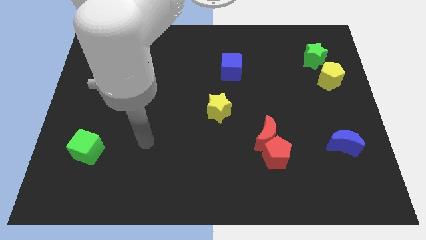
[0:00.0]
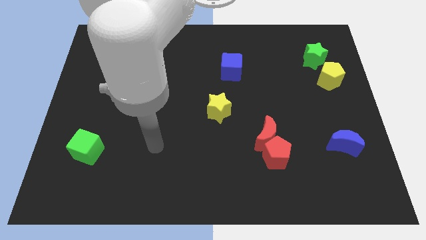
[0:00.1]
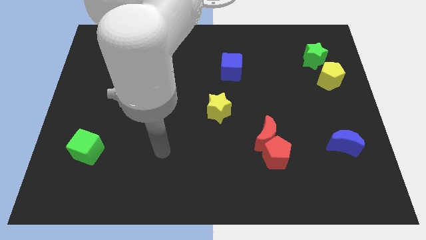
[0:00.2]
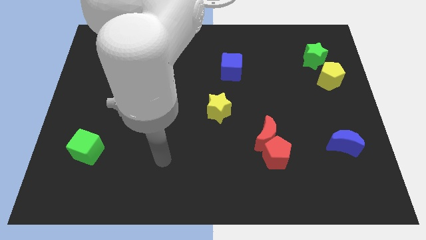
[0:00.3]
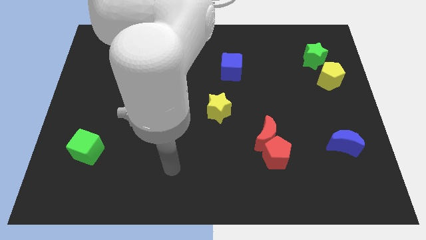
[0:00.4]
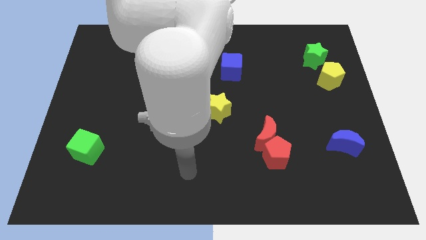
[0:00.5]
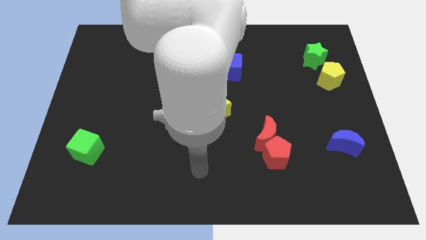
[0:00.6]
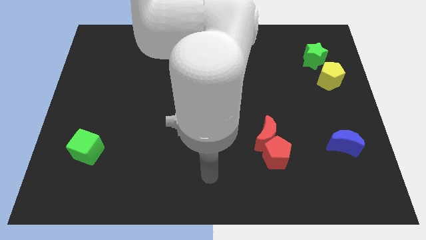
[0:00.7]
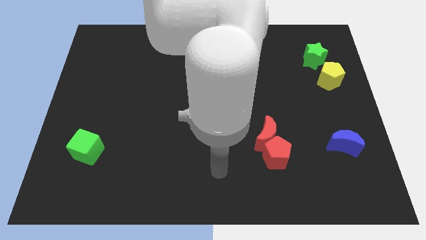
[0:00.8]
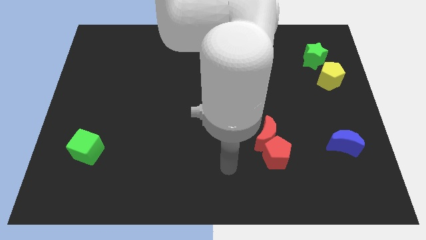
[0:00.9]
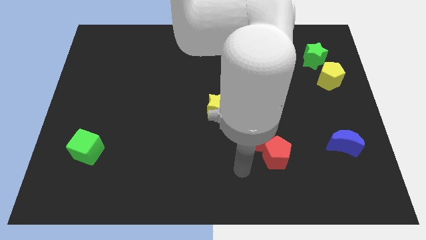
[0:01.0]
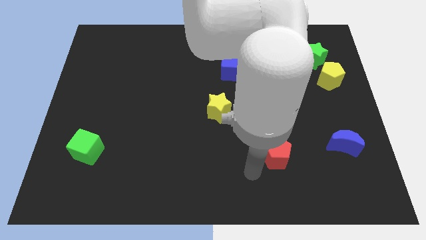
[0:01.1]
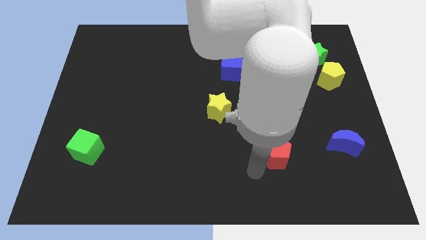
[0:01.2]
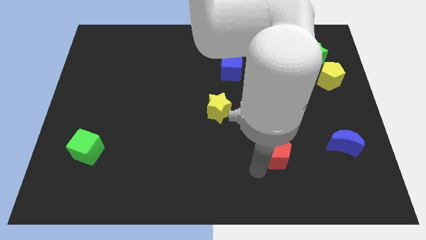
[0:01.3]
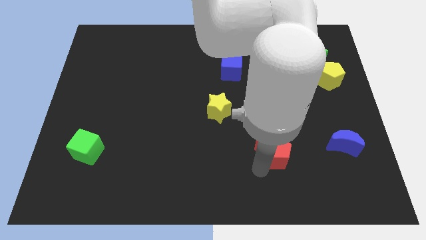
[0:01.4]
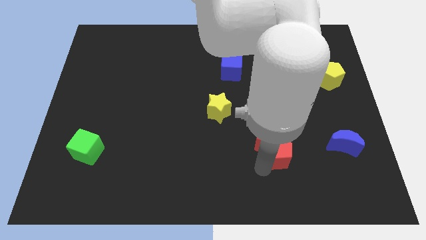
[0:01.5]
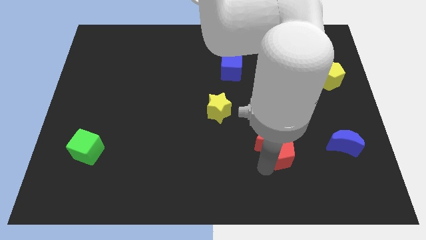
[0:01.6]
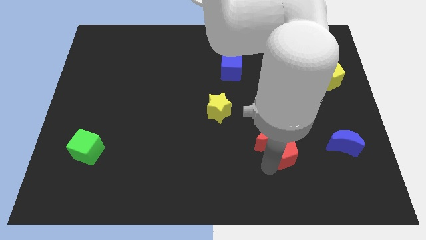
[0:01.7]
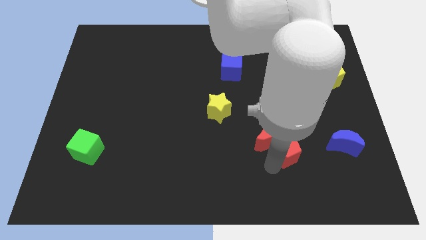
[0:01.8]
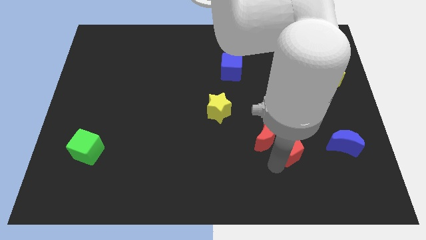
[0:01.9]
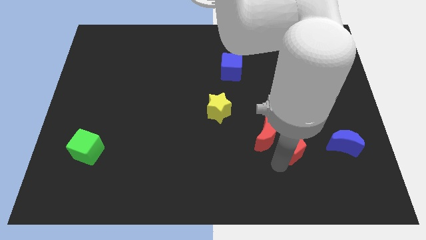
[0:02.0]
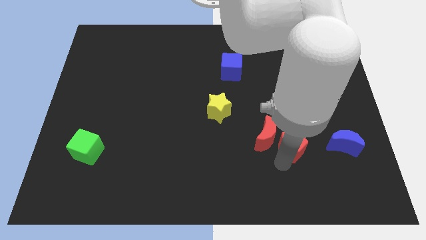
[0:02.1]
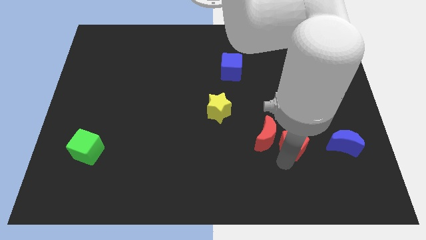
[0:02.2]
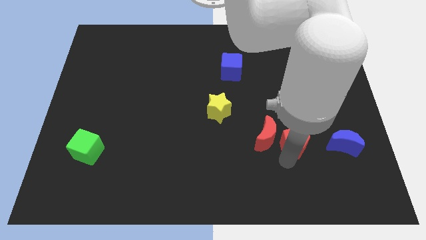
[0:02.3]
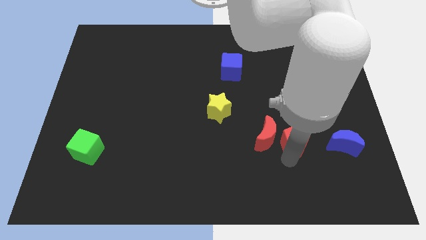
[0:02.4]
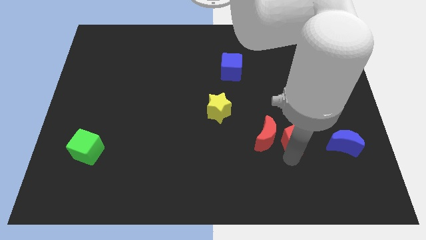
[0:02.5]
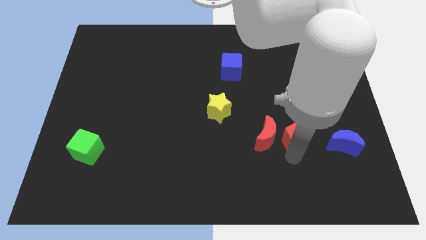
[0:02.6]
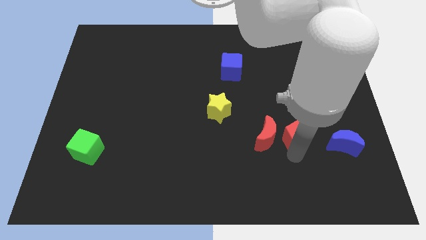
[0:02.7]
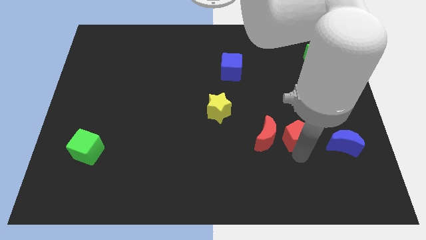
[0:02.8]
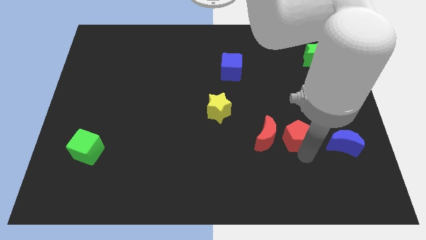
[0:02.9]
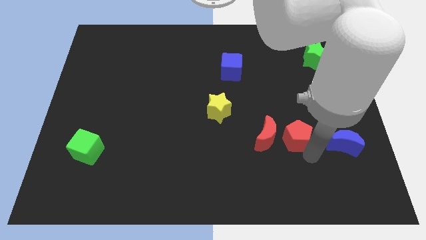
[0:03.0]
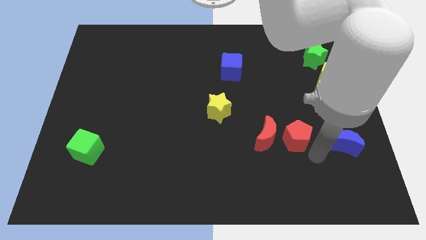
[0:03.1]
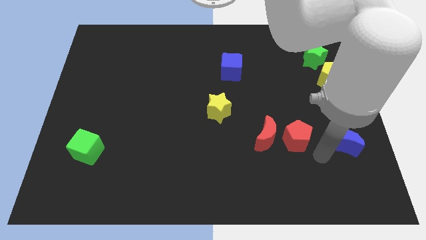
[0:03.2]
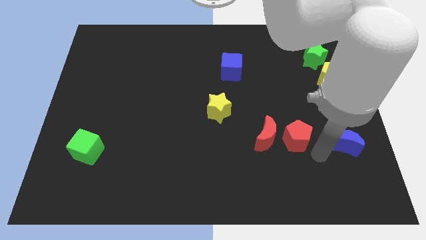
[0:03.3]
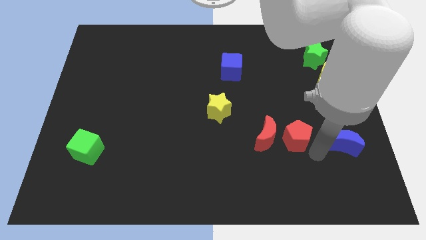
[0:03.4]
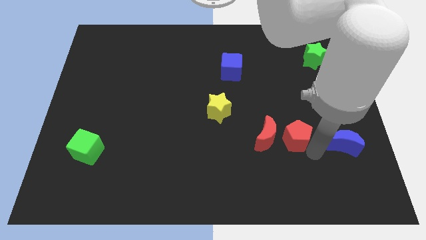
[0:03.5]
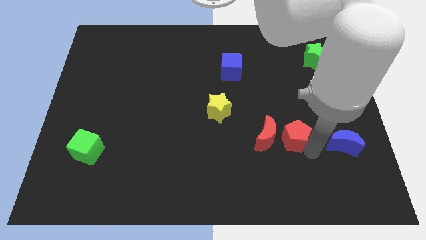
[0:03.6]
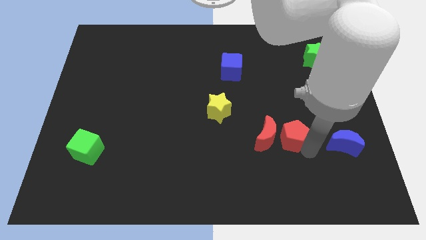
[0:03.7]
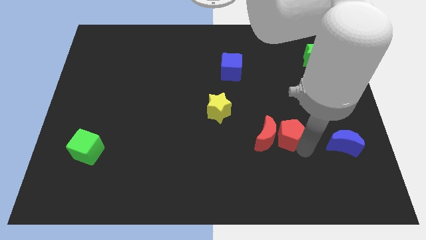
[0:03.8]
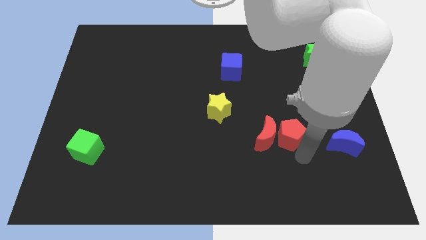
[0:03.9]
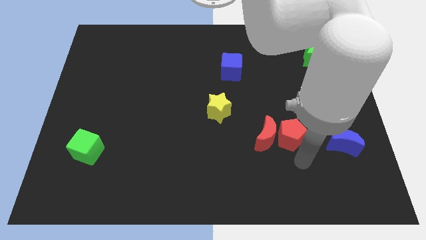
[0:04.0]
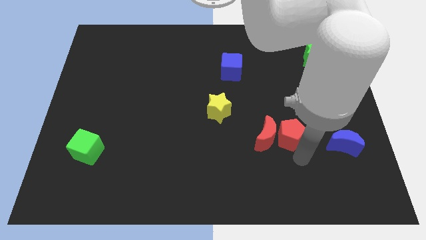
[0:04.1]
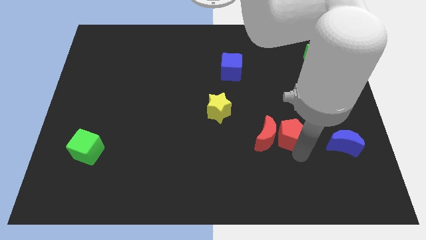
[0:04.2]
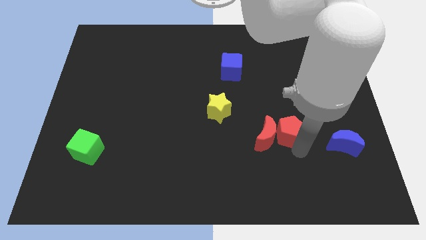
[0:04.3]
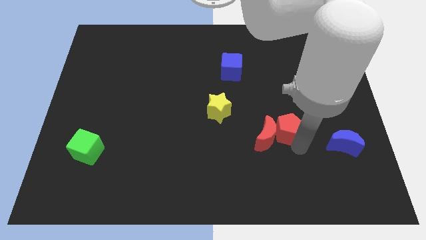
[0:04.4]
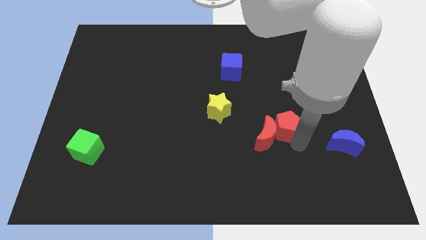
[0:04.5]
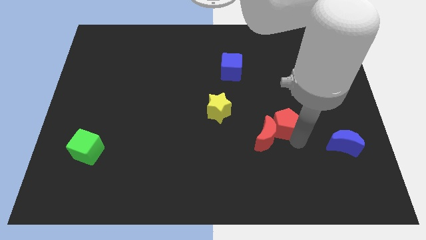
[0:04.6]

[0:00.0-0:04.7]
move the red pentagon upwards slightly

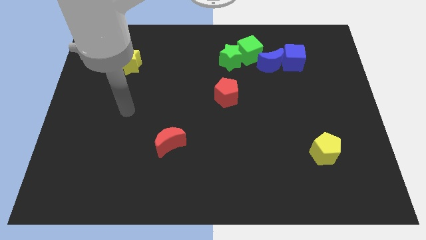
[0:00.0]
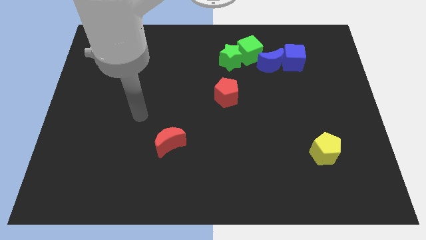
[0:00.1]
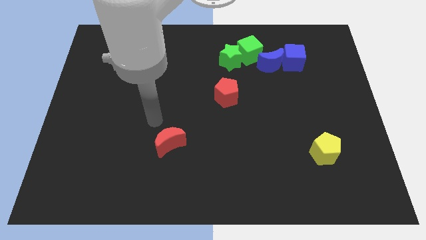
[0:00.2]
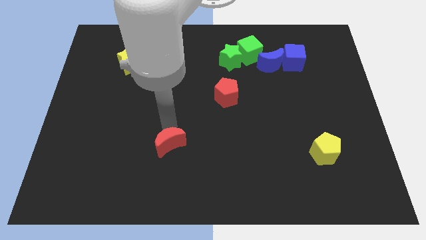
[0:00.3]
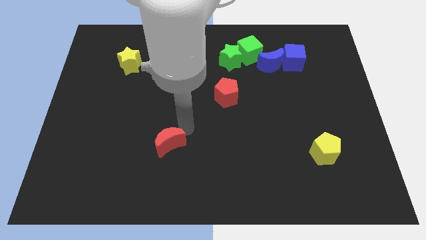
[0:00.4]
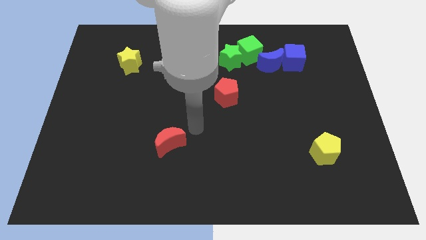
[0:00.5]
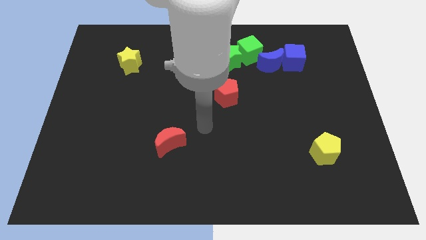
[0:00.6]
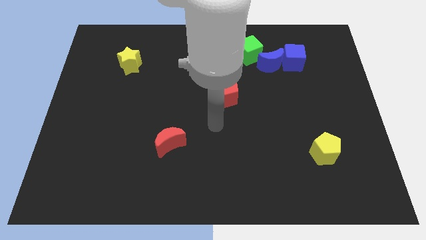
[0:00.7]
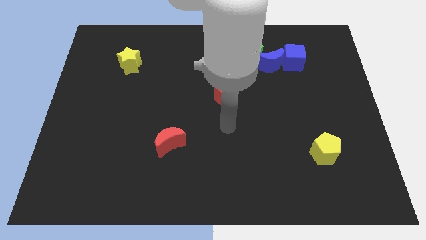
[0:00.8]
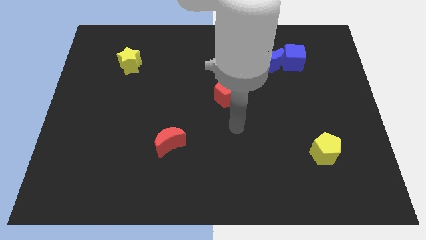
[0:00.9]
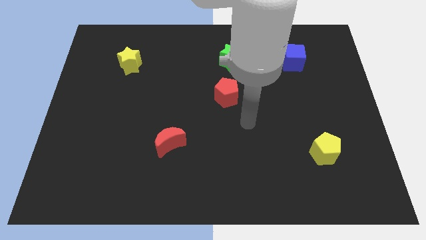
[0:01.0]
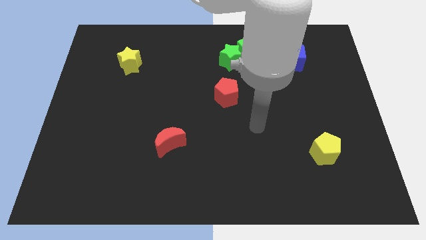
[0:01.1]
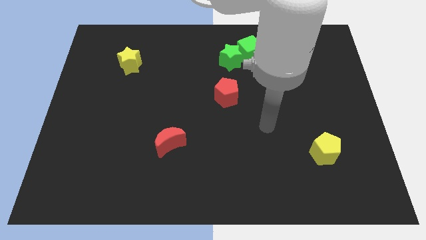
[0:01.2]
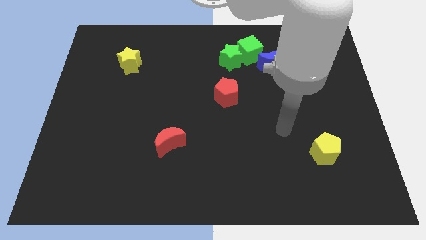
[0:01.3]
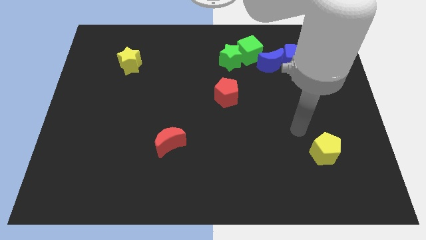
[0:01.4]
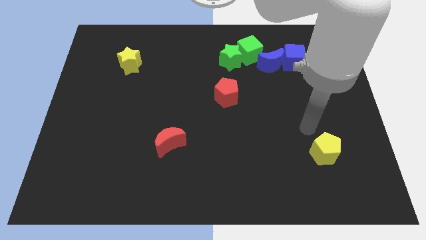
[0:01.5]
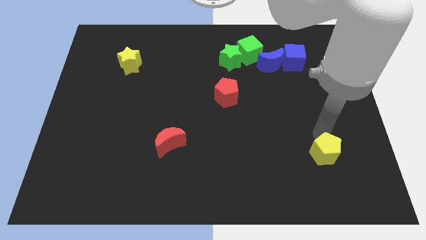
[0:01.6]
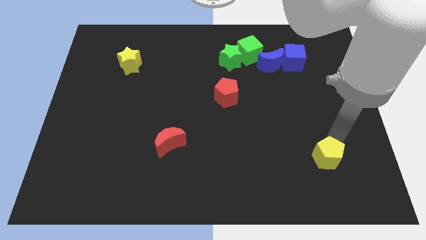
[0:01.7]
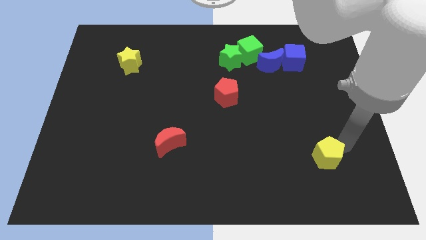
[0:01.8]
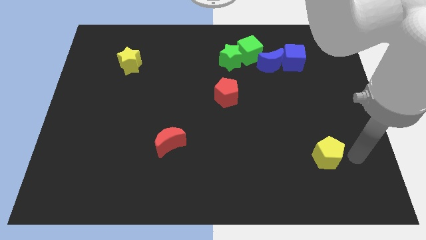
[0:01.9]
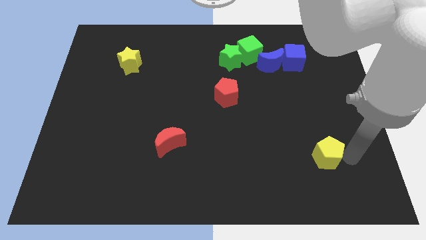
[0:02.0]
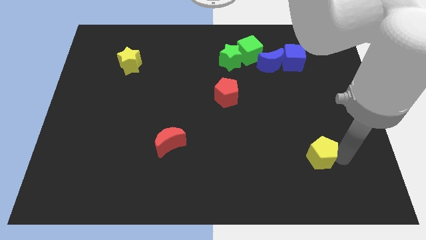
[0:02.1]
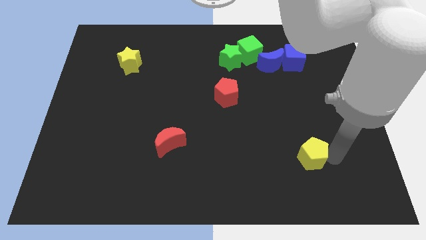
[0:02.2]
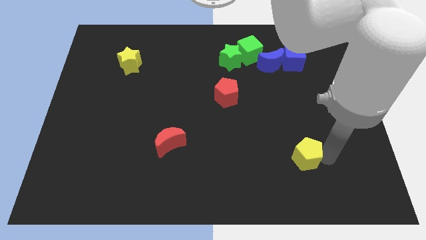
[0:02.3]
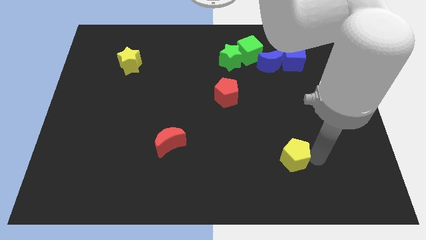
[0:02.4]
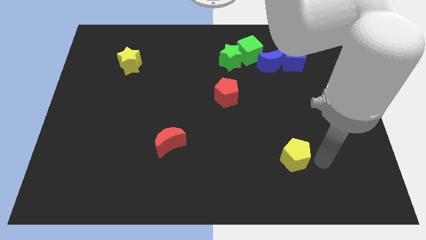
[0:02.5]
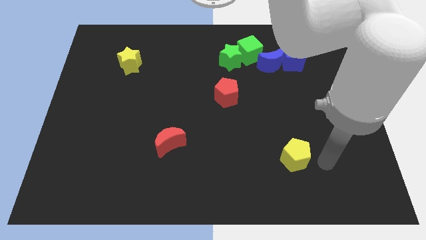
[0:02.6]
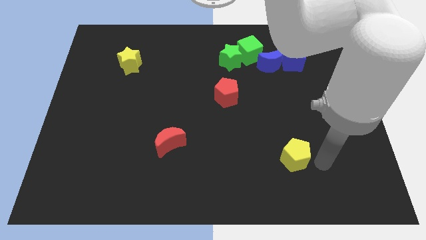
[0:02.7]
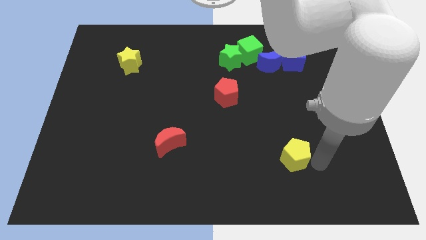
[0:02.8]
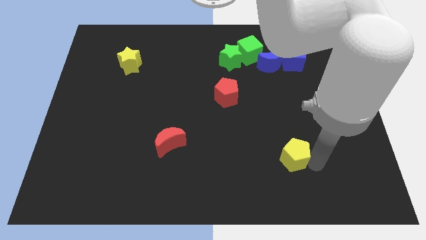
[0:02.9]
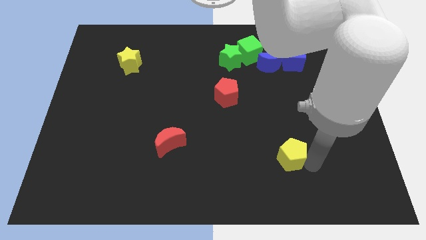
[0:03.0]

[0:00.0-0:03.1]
slide the yellow pentagon slightly left
